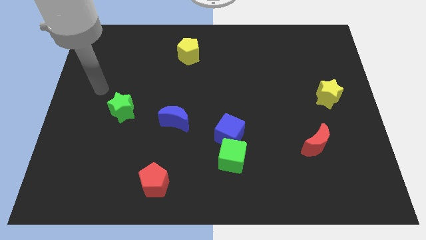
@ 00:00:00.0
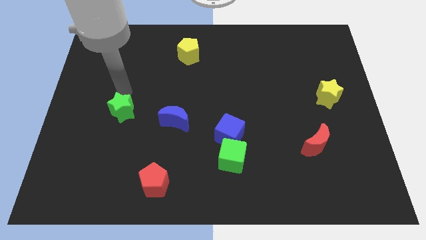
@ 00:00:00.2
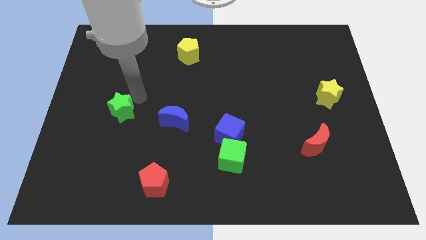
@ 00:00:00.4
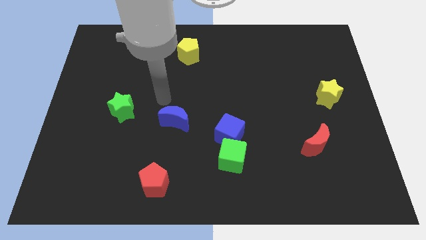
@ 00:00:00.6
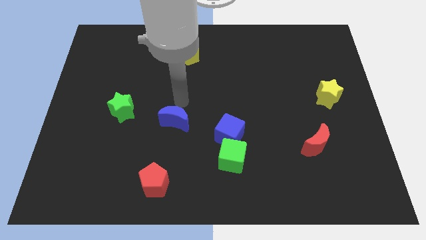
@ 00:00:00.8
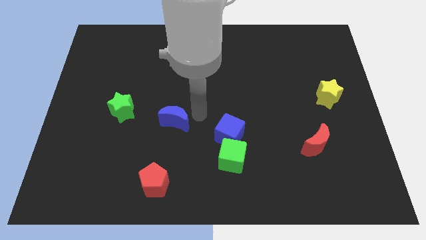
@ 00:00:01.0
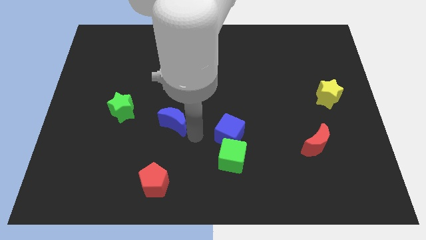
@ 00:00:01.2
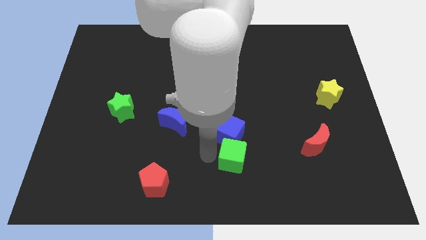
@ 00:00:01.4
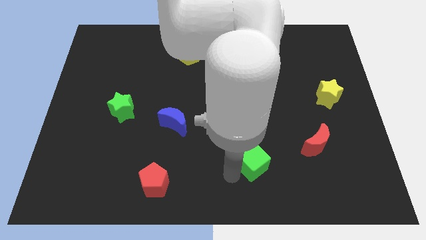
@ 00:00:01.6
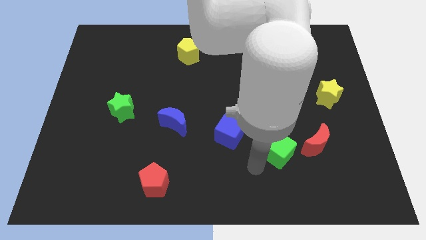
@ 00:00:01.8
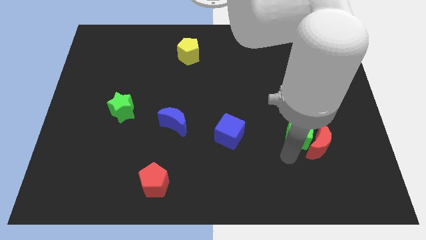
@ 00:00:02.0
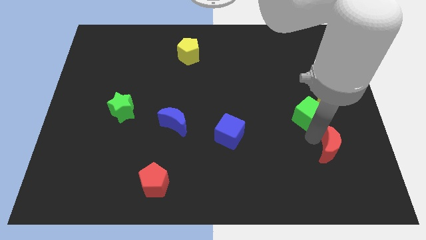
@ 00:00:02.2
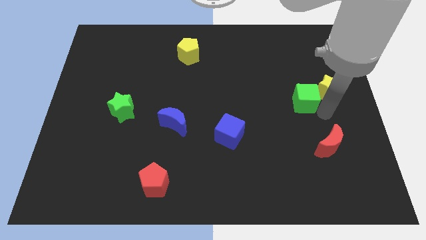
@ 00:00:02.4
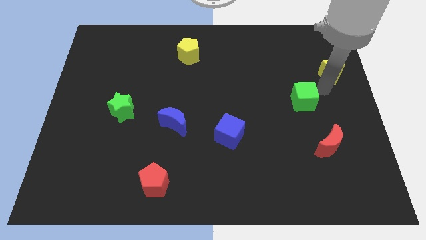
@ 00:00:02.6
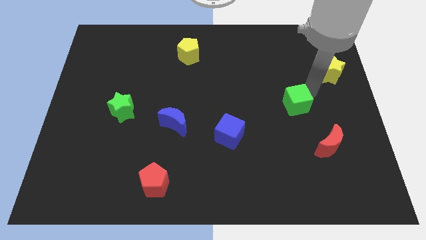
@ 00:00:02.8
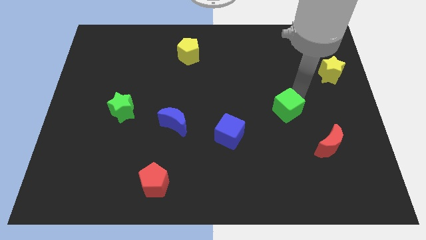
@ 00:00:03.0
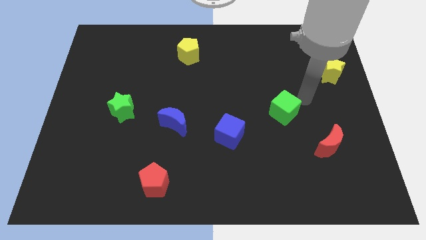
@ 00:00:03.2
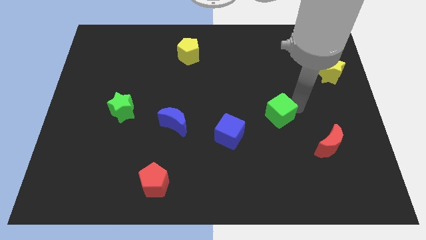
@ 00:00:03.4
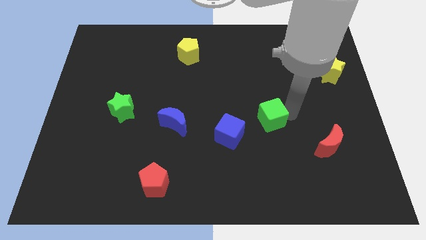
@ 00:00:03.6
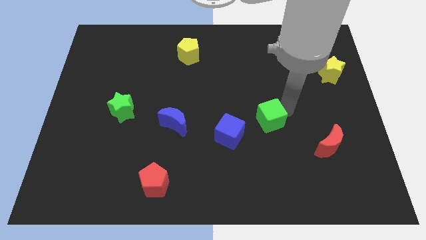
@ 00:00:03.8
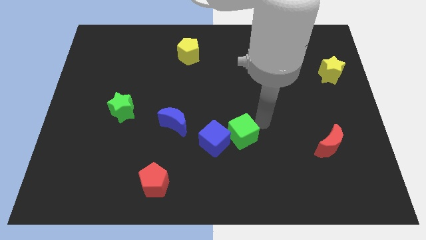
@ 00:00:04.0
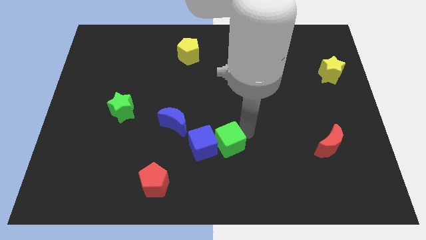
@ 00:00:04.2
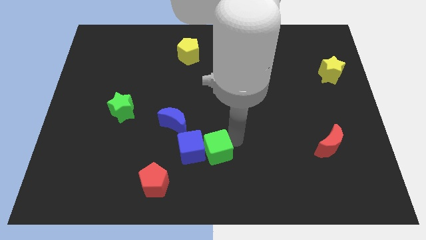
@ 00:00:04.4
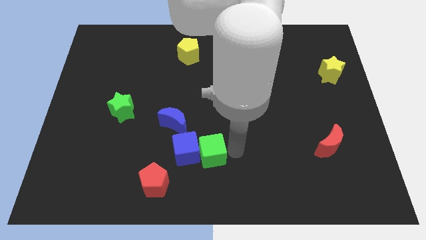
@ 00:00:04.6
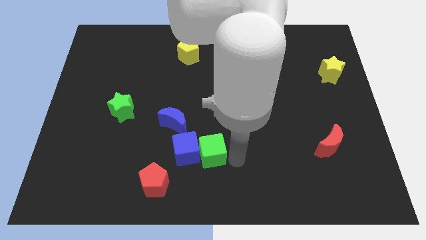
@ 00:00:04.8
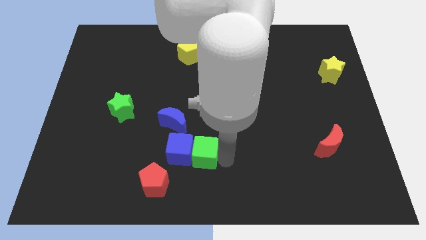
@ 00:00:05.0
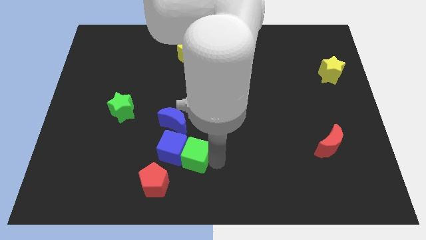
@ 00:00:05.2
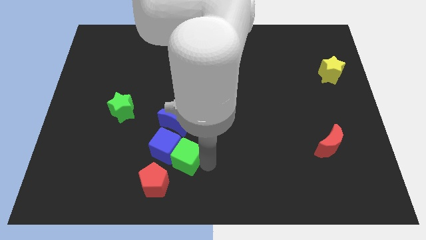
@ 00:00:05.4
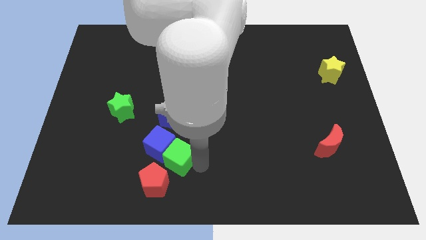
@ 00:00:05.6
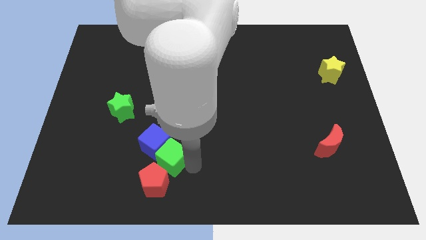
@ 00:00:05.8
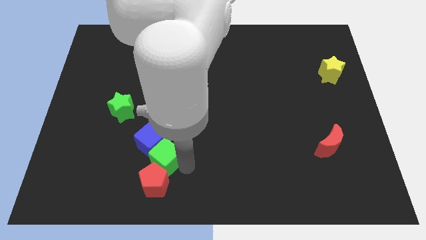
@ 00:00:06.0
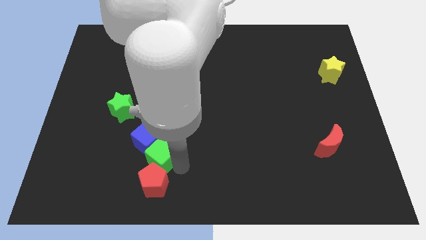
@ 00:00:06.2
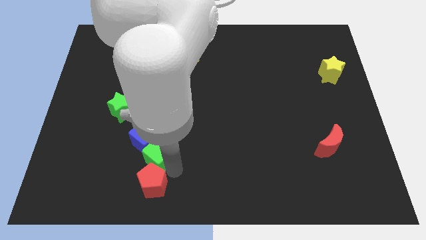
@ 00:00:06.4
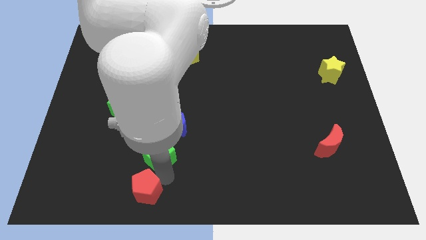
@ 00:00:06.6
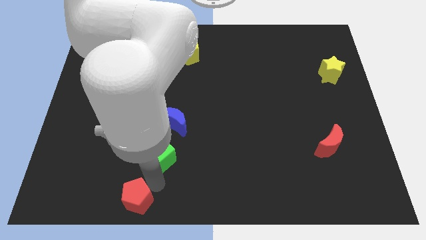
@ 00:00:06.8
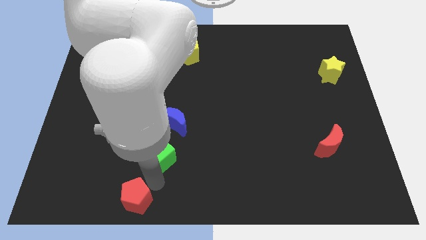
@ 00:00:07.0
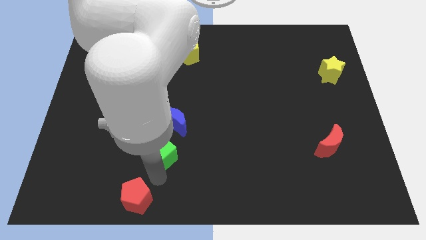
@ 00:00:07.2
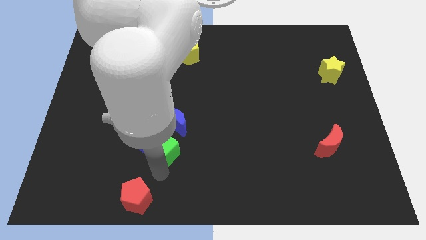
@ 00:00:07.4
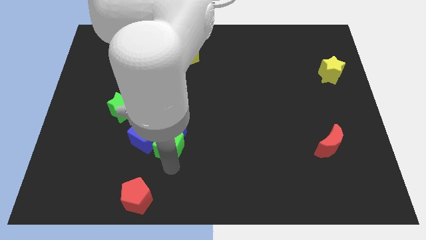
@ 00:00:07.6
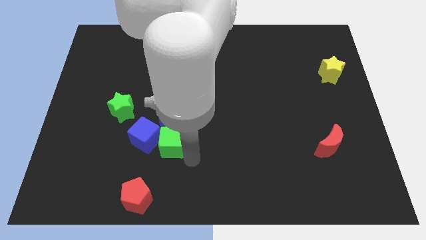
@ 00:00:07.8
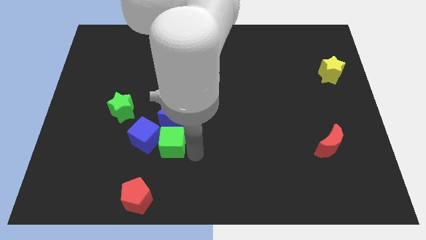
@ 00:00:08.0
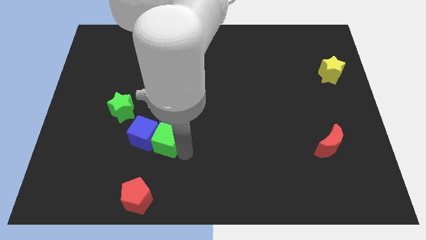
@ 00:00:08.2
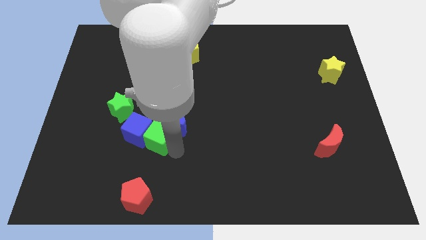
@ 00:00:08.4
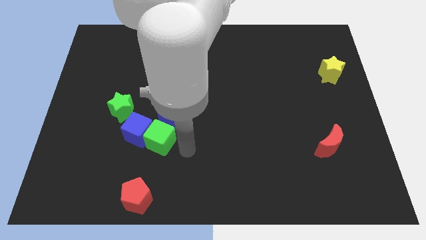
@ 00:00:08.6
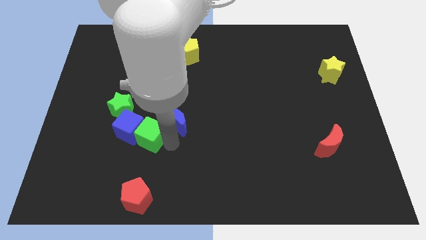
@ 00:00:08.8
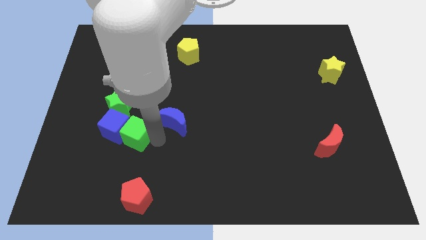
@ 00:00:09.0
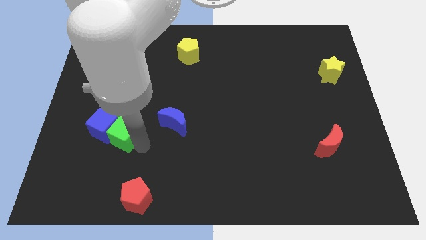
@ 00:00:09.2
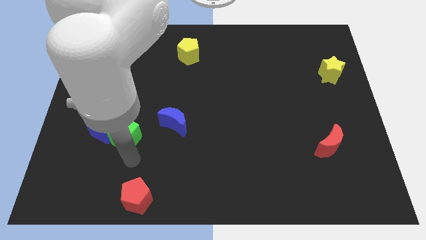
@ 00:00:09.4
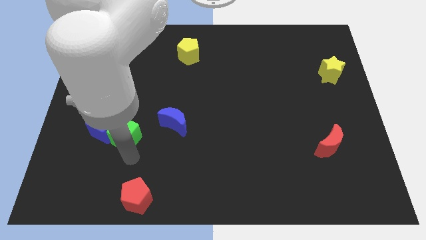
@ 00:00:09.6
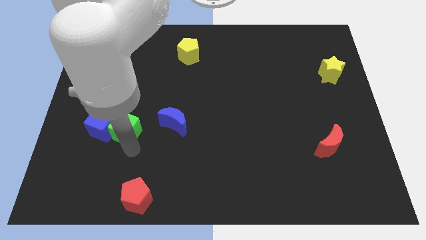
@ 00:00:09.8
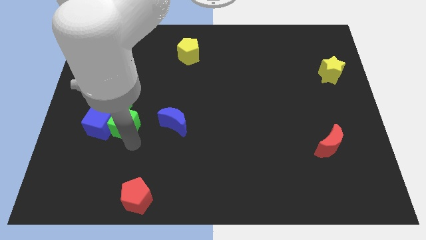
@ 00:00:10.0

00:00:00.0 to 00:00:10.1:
push the green cube close to the green star

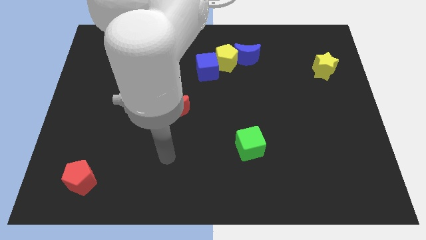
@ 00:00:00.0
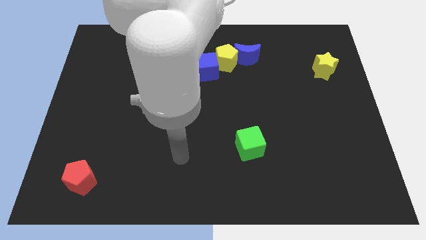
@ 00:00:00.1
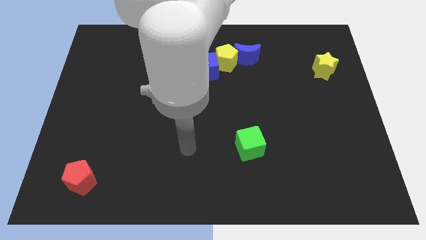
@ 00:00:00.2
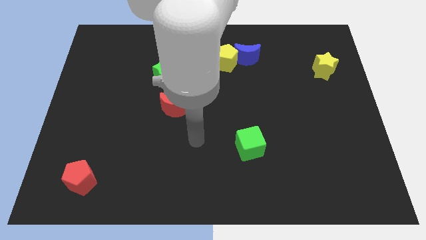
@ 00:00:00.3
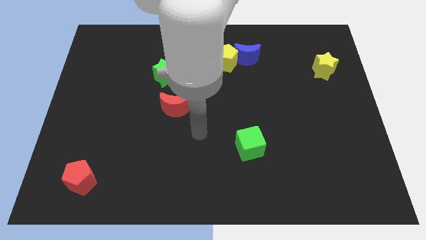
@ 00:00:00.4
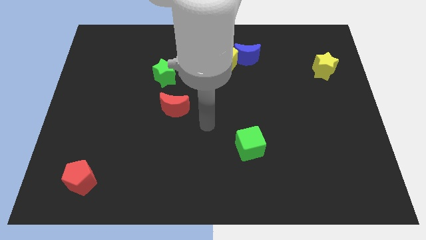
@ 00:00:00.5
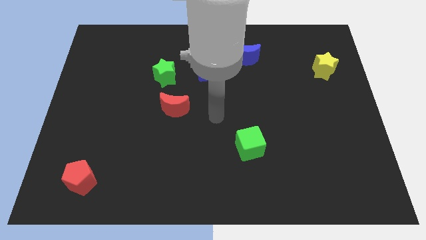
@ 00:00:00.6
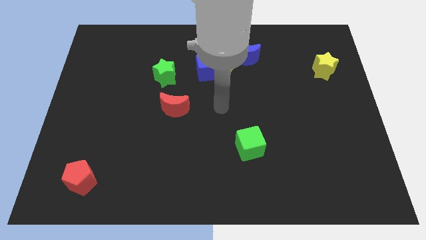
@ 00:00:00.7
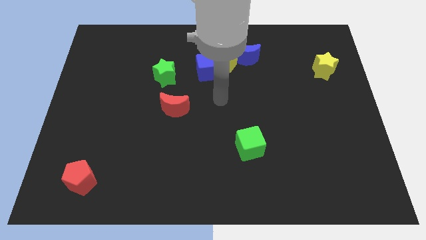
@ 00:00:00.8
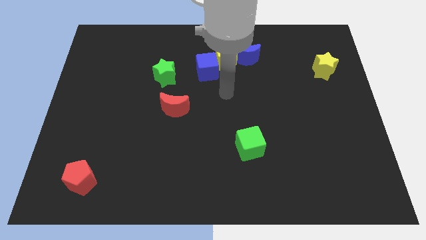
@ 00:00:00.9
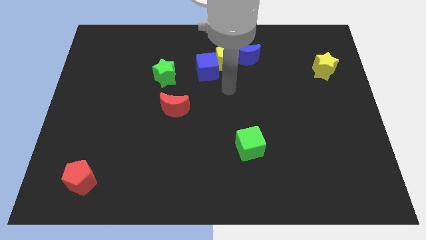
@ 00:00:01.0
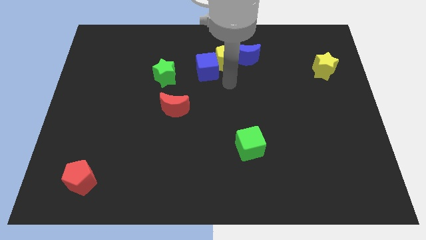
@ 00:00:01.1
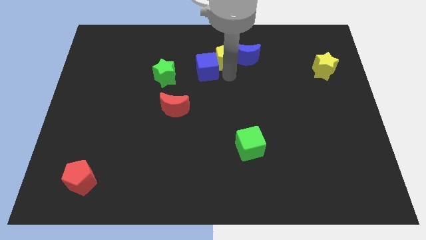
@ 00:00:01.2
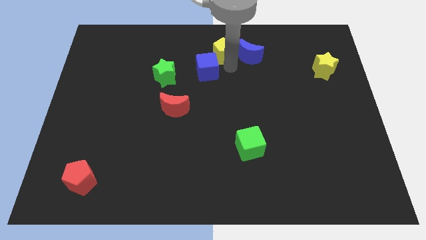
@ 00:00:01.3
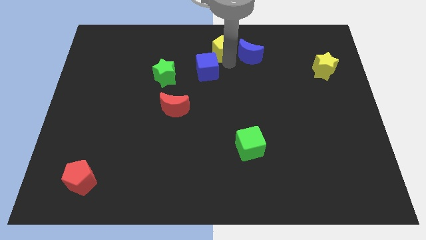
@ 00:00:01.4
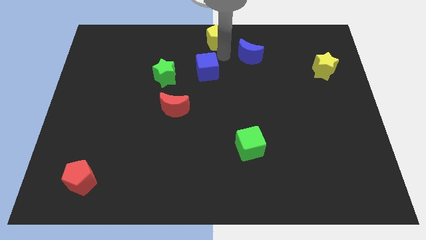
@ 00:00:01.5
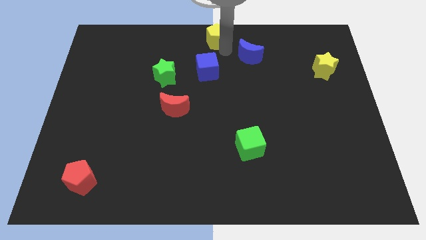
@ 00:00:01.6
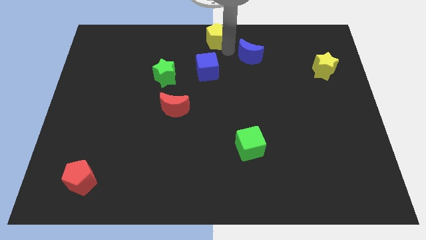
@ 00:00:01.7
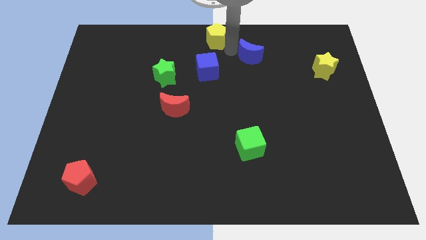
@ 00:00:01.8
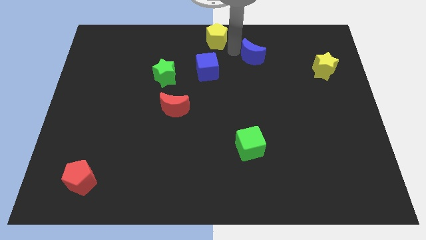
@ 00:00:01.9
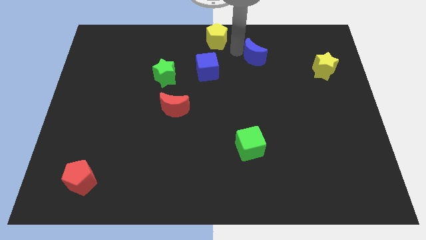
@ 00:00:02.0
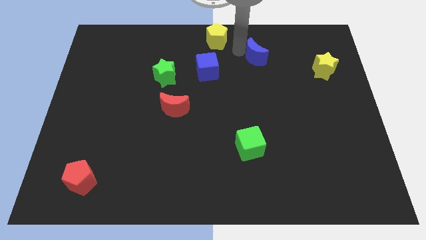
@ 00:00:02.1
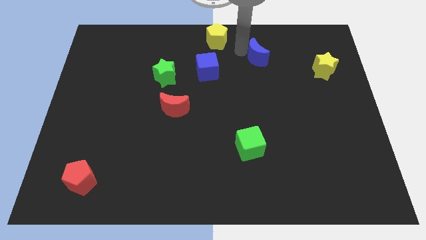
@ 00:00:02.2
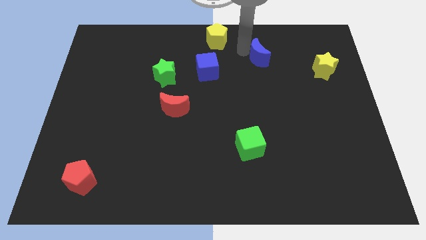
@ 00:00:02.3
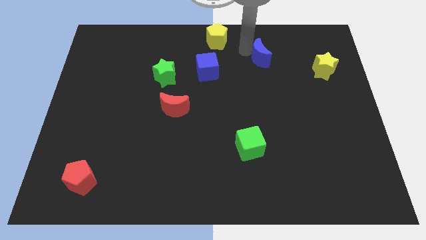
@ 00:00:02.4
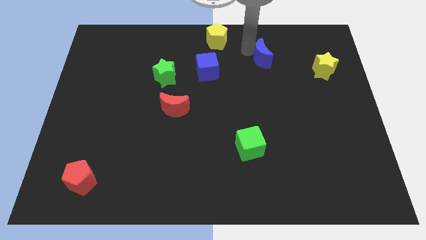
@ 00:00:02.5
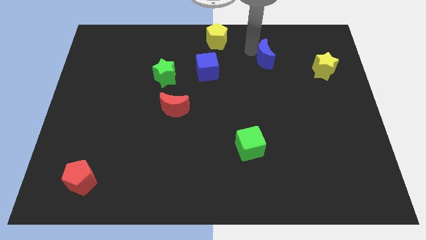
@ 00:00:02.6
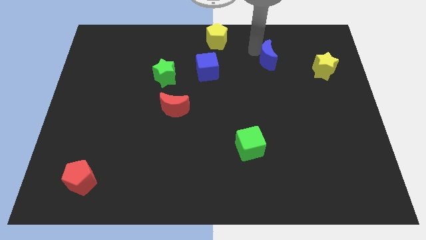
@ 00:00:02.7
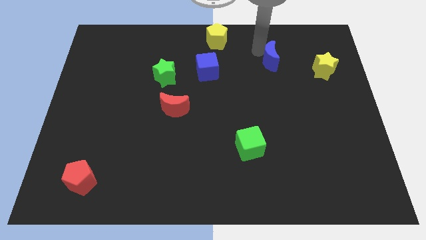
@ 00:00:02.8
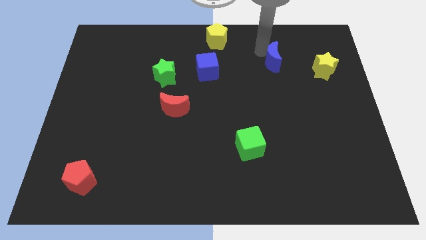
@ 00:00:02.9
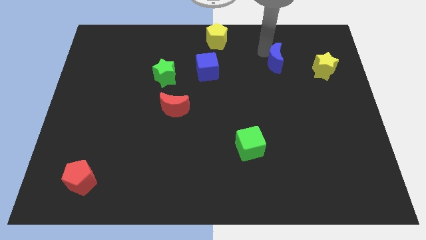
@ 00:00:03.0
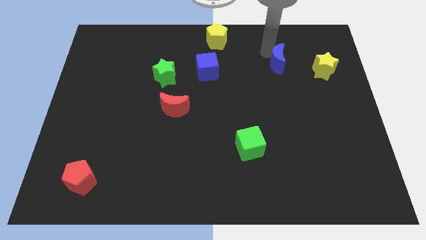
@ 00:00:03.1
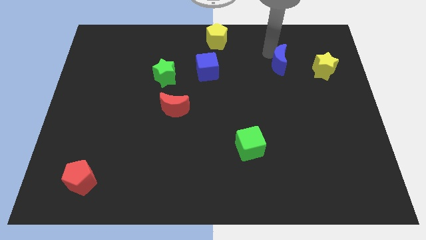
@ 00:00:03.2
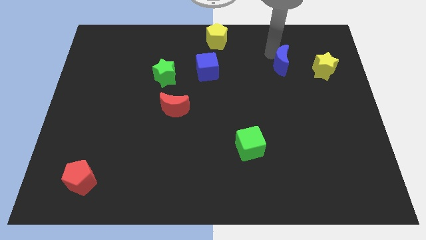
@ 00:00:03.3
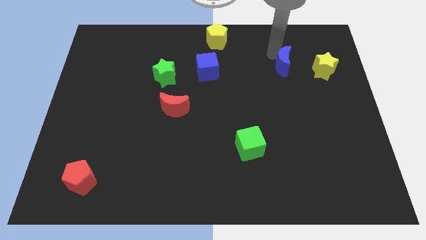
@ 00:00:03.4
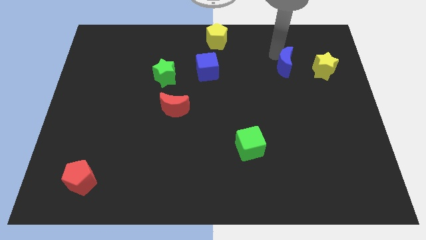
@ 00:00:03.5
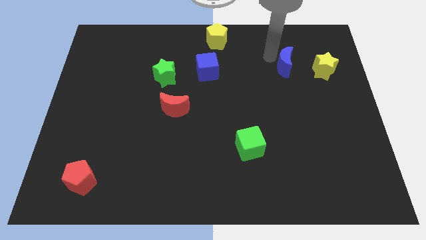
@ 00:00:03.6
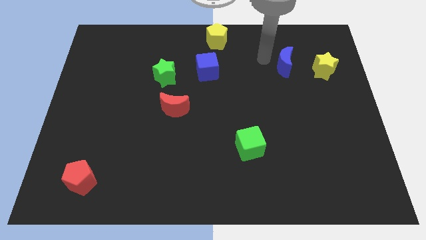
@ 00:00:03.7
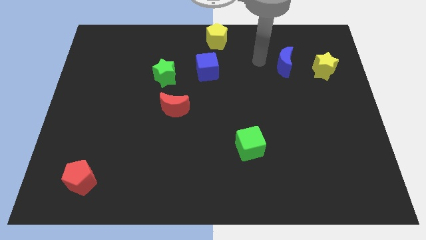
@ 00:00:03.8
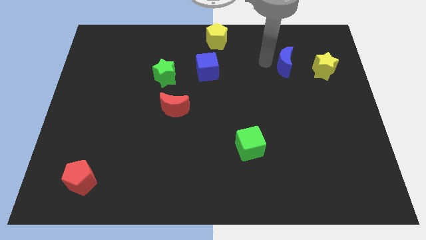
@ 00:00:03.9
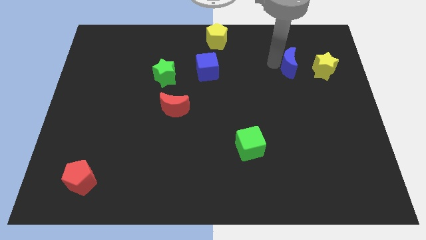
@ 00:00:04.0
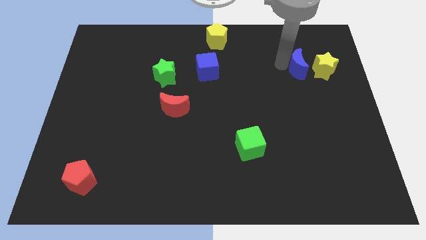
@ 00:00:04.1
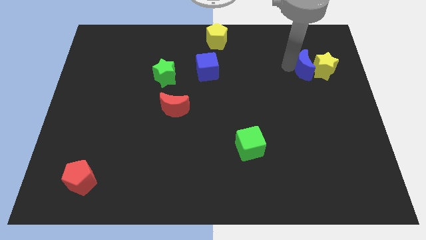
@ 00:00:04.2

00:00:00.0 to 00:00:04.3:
put the blue moon towards the yellow star
